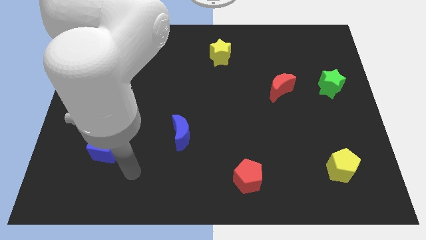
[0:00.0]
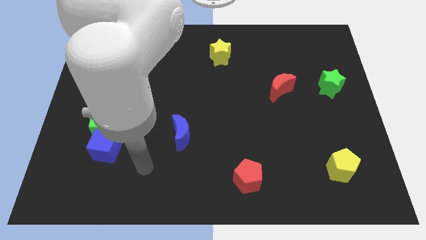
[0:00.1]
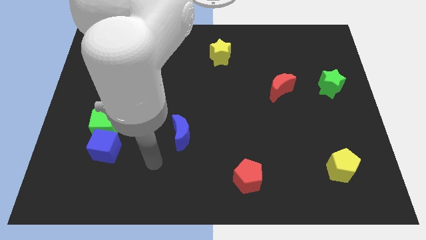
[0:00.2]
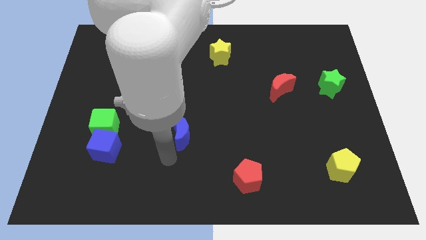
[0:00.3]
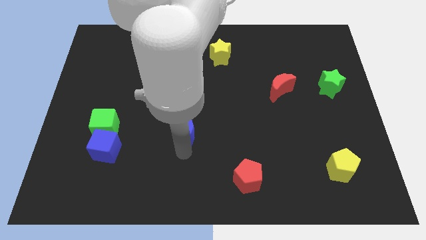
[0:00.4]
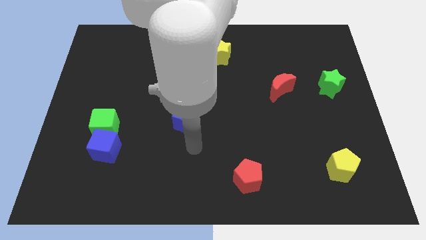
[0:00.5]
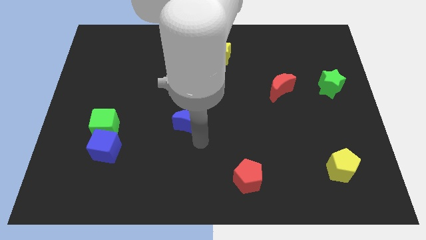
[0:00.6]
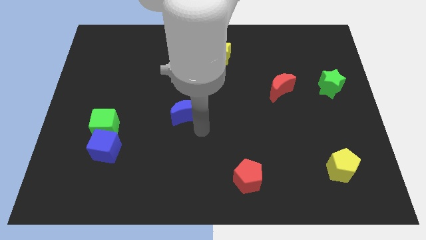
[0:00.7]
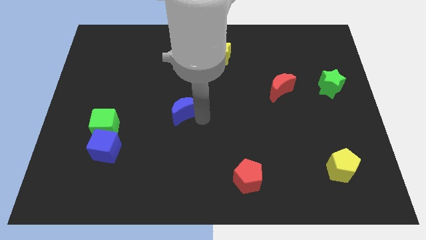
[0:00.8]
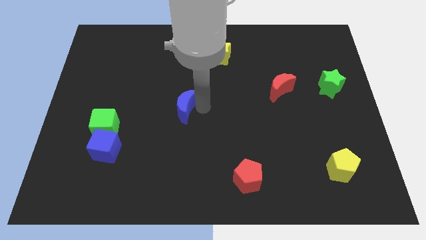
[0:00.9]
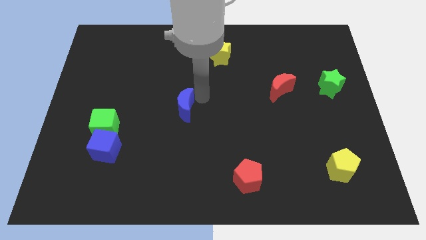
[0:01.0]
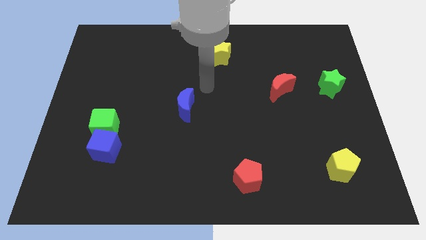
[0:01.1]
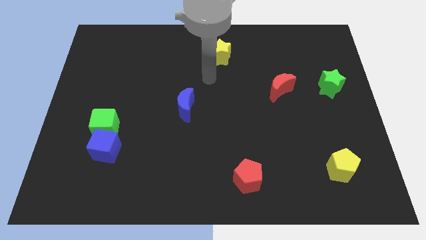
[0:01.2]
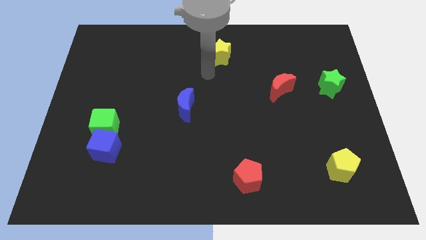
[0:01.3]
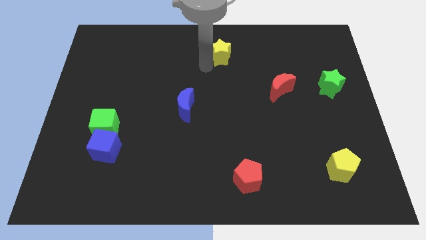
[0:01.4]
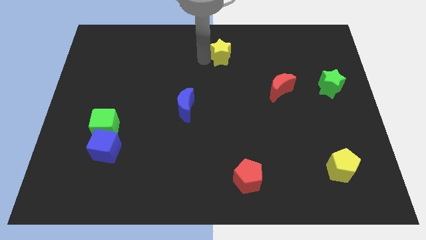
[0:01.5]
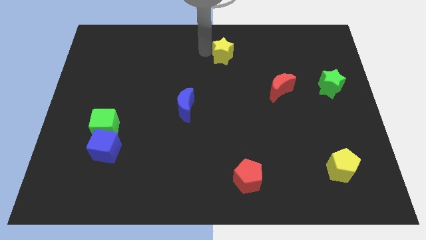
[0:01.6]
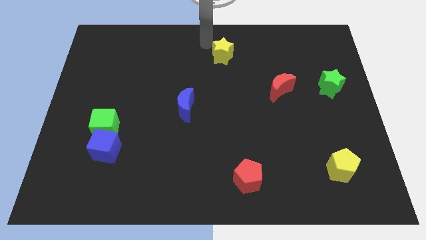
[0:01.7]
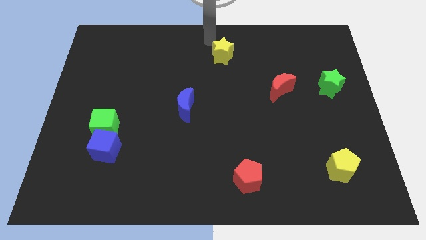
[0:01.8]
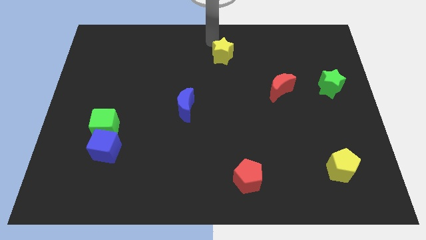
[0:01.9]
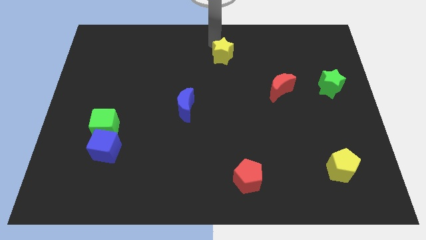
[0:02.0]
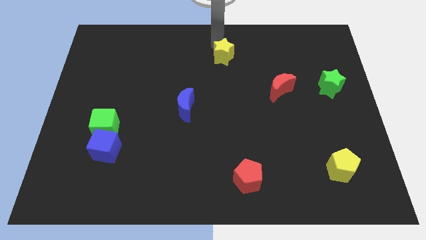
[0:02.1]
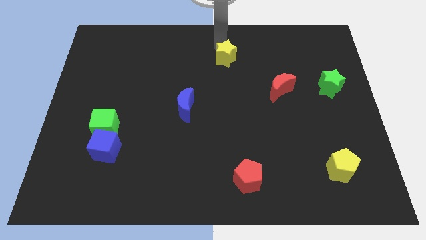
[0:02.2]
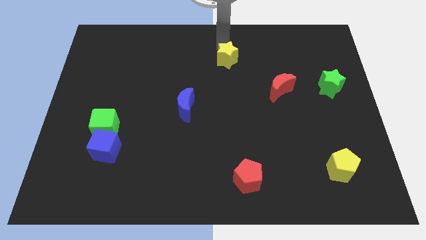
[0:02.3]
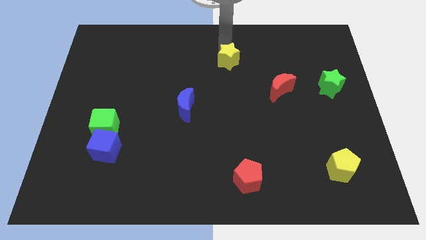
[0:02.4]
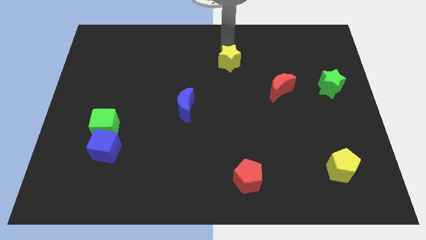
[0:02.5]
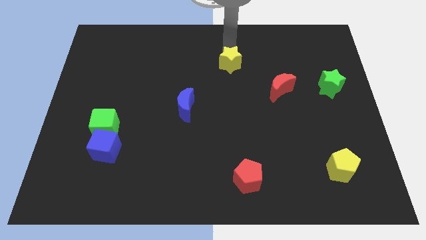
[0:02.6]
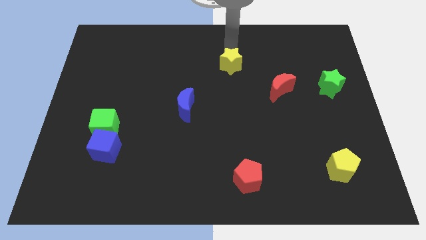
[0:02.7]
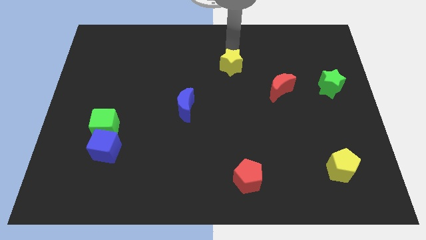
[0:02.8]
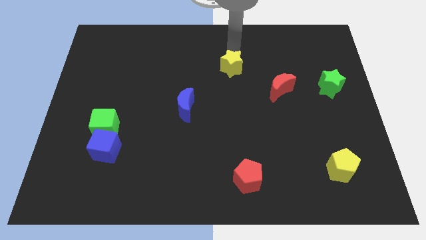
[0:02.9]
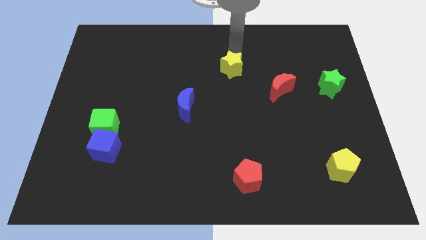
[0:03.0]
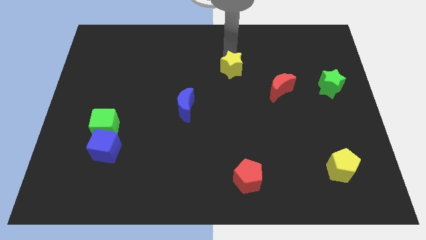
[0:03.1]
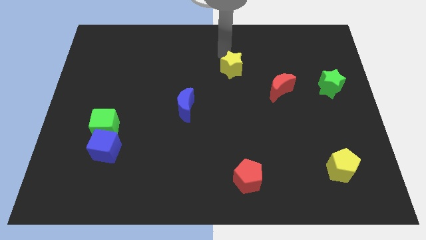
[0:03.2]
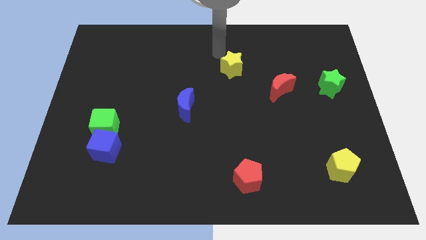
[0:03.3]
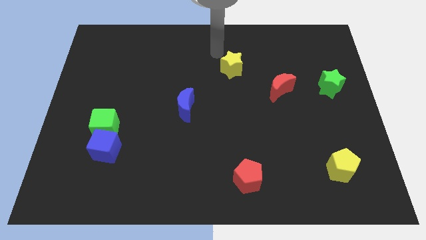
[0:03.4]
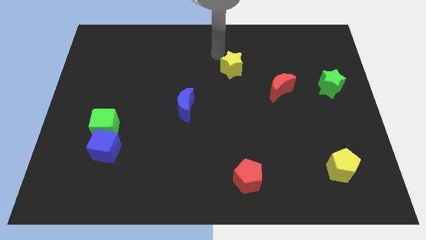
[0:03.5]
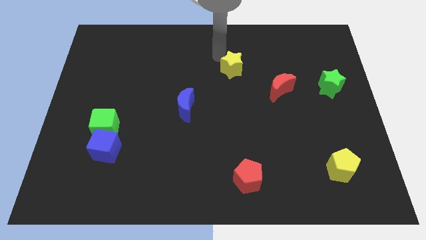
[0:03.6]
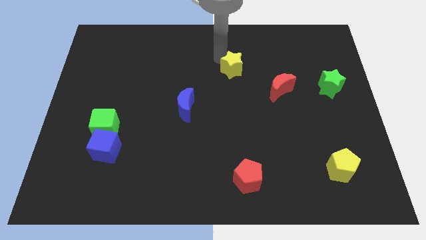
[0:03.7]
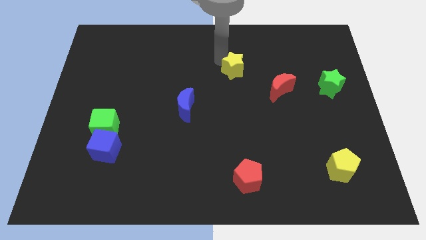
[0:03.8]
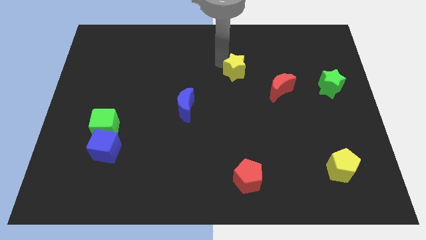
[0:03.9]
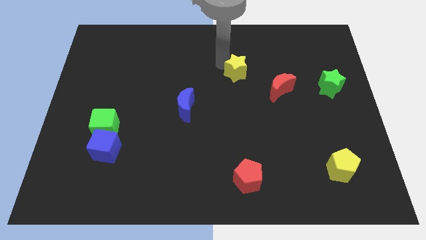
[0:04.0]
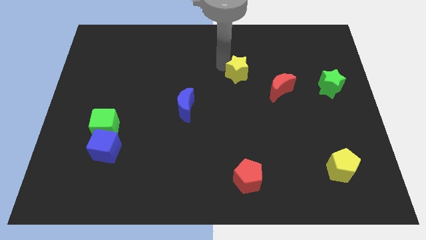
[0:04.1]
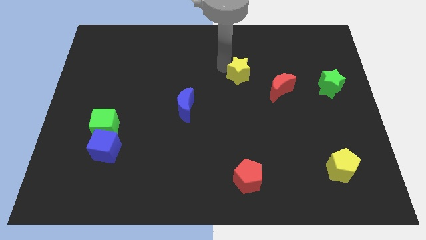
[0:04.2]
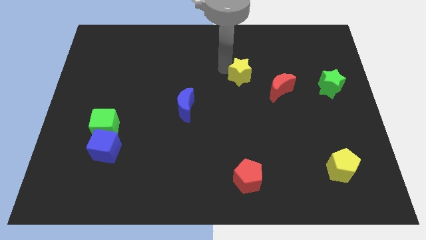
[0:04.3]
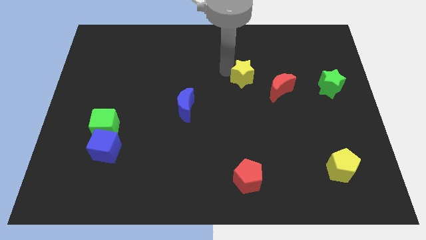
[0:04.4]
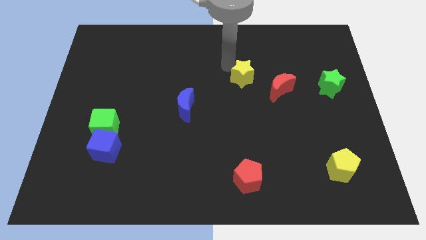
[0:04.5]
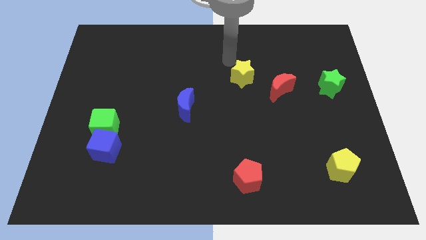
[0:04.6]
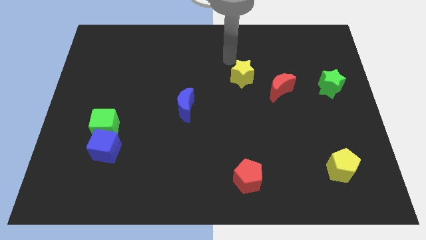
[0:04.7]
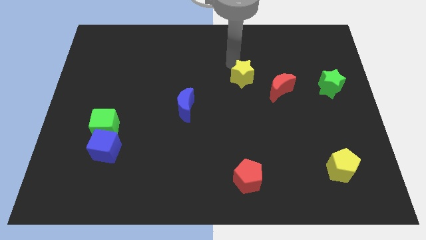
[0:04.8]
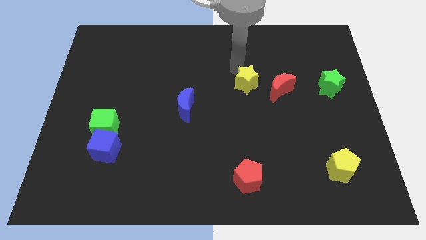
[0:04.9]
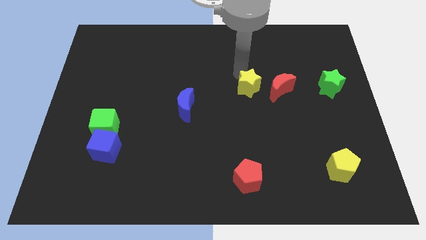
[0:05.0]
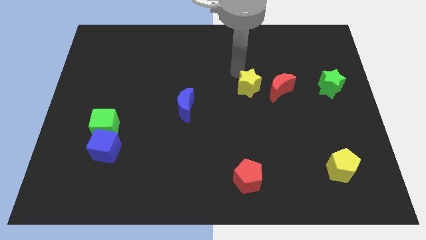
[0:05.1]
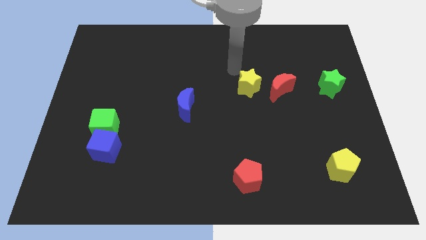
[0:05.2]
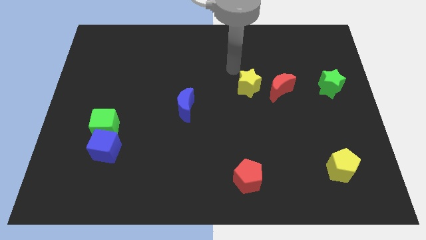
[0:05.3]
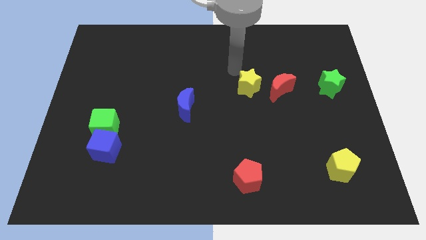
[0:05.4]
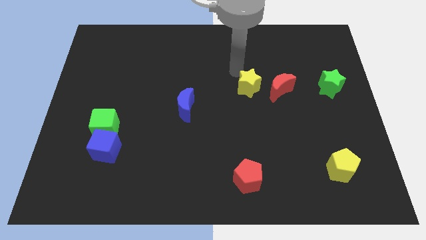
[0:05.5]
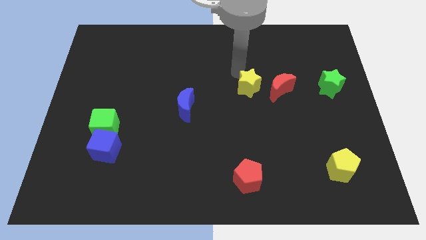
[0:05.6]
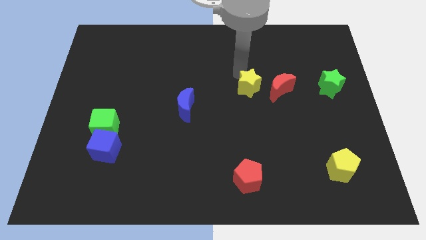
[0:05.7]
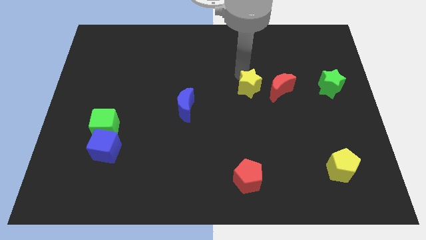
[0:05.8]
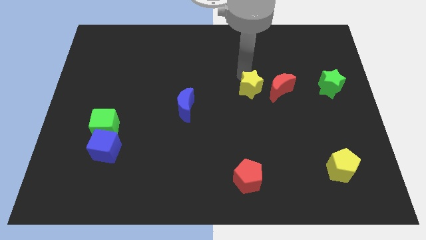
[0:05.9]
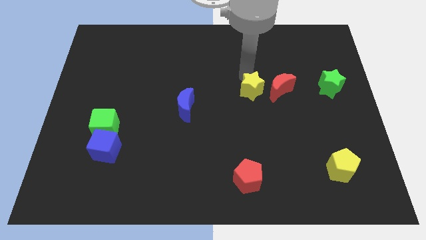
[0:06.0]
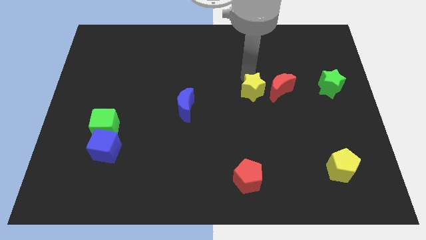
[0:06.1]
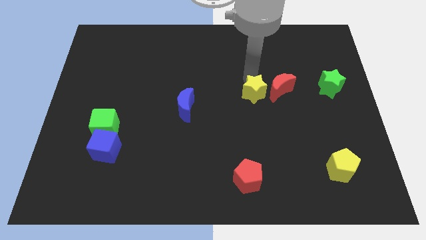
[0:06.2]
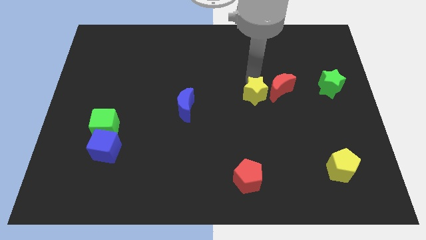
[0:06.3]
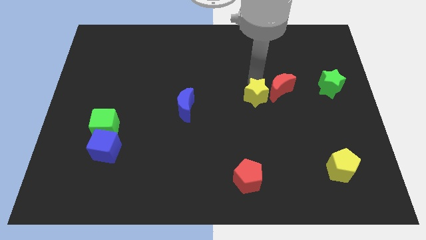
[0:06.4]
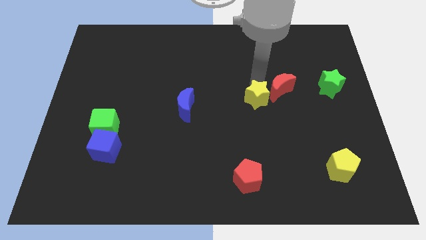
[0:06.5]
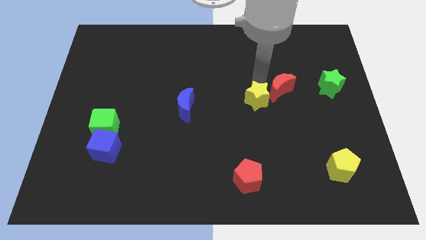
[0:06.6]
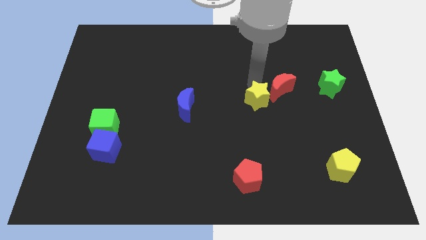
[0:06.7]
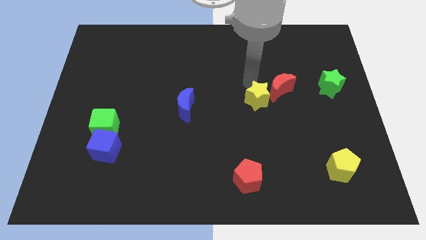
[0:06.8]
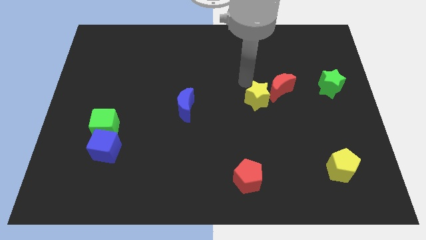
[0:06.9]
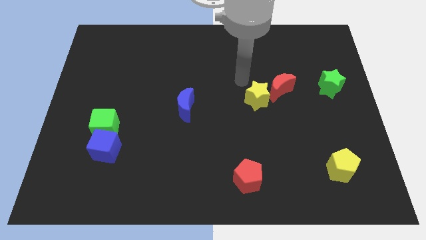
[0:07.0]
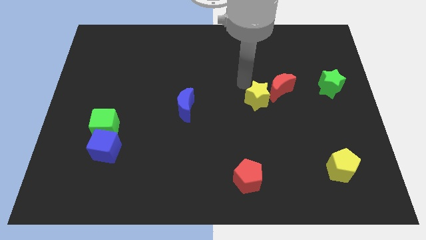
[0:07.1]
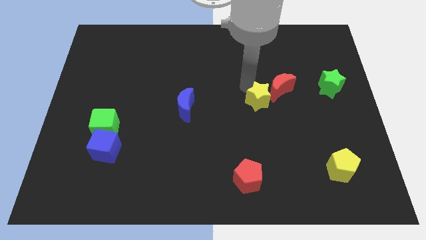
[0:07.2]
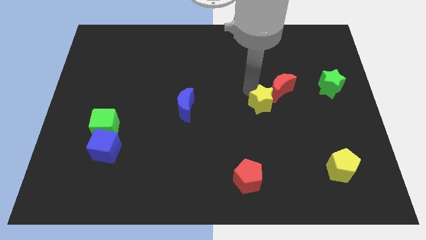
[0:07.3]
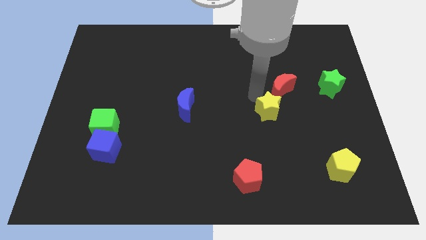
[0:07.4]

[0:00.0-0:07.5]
move the yellow star to the bottom of the red moon

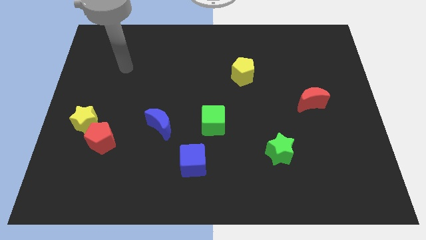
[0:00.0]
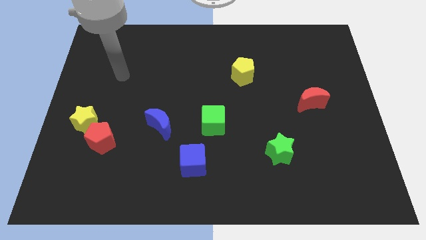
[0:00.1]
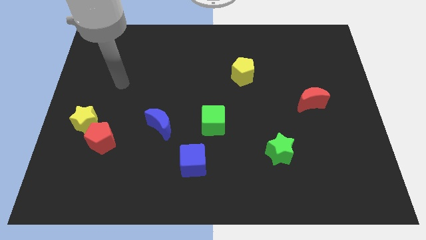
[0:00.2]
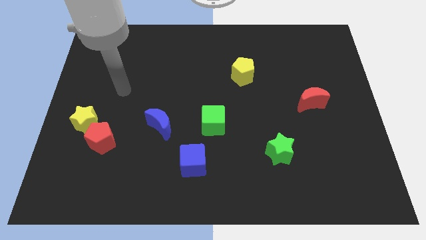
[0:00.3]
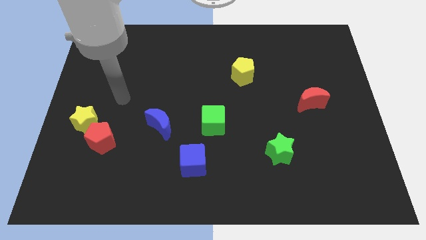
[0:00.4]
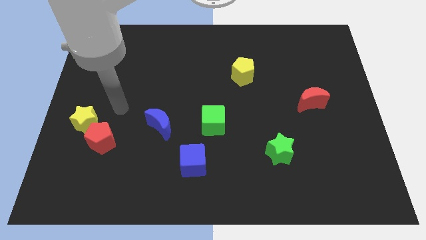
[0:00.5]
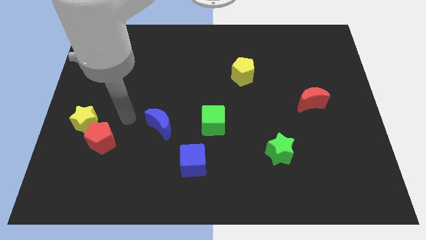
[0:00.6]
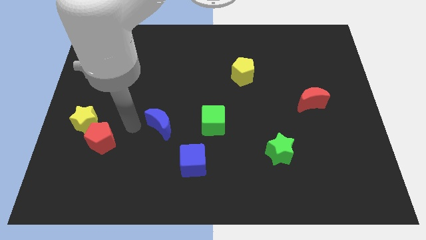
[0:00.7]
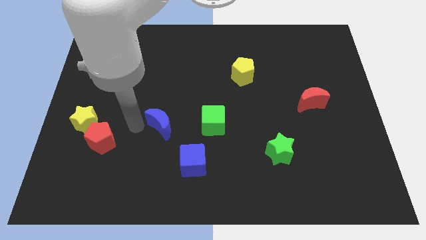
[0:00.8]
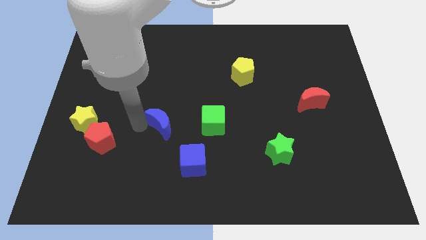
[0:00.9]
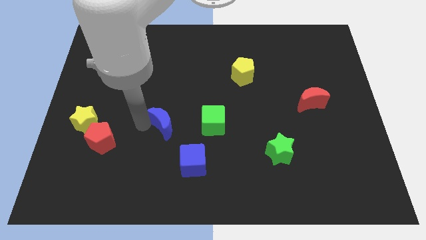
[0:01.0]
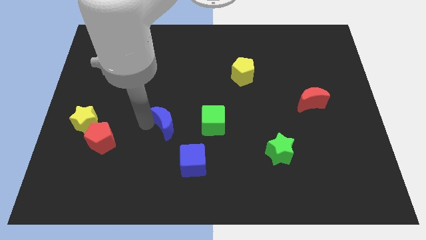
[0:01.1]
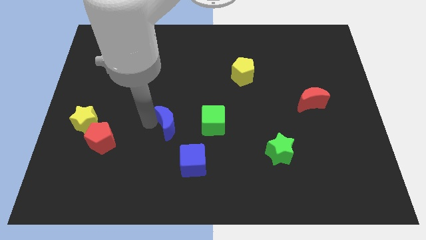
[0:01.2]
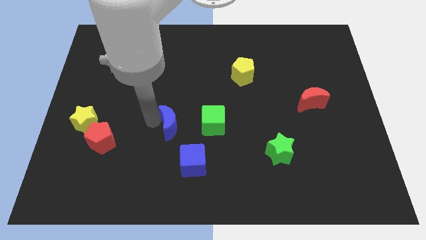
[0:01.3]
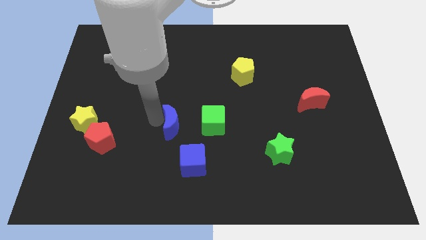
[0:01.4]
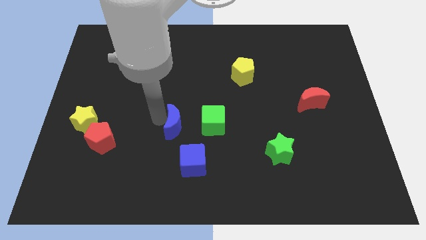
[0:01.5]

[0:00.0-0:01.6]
move the blue moon above the blue cube
